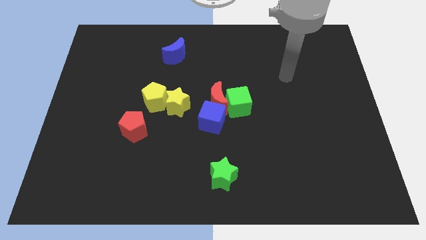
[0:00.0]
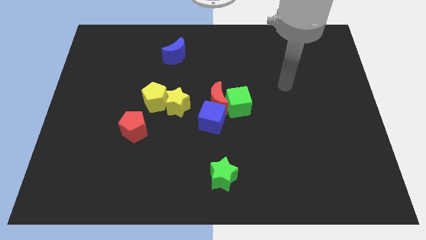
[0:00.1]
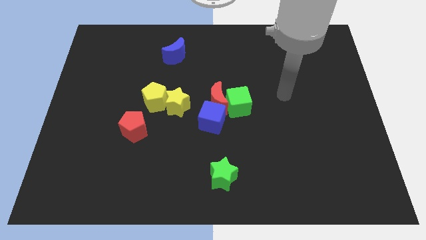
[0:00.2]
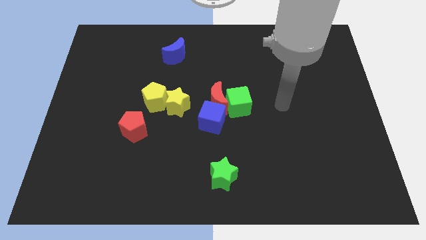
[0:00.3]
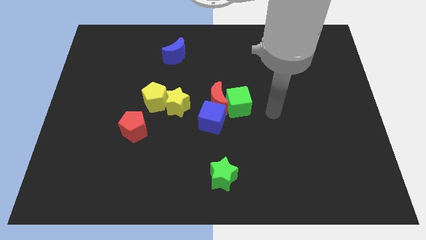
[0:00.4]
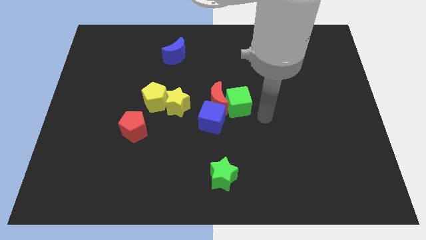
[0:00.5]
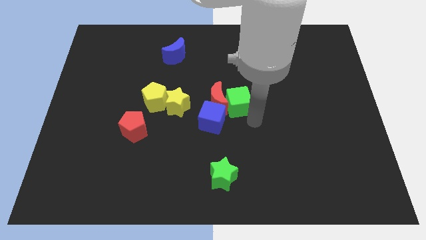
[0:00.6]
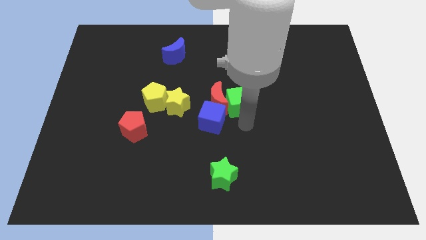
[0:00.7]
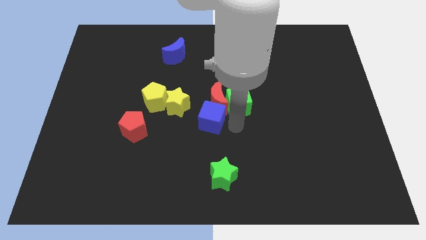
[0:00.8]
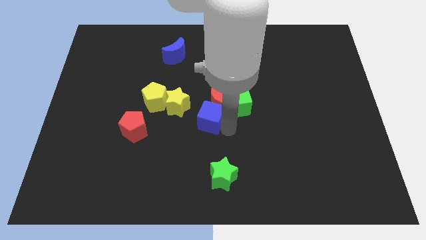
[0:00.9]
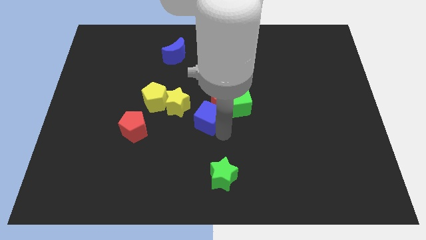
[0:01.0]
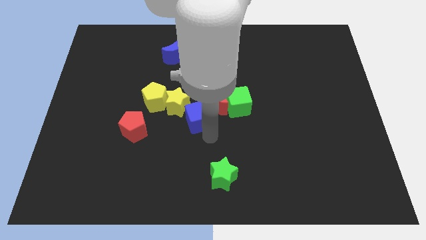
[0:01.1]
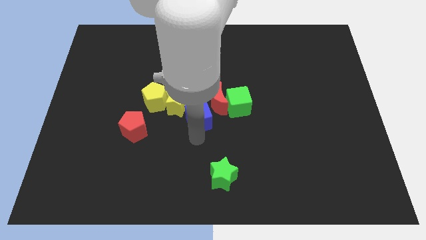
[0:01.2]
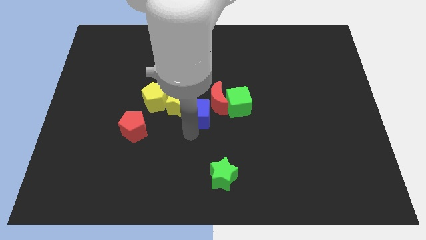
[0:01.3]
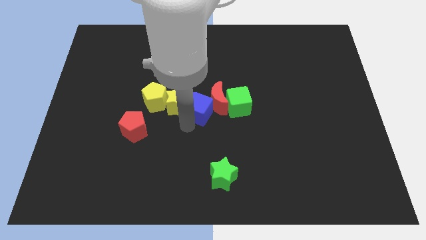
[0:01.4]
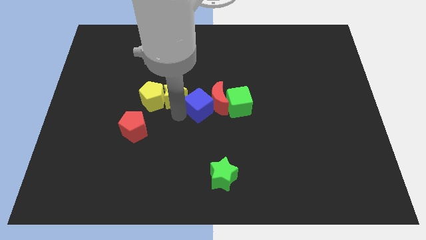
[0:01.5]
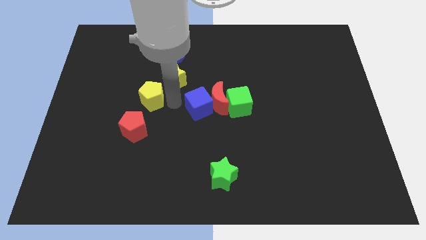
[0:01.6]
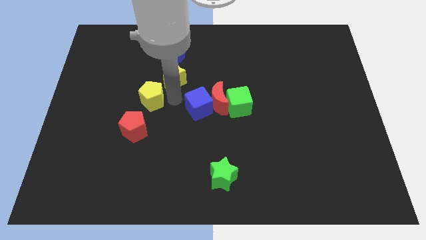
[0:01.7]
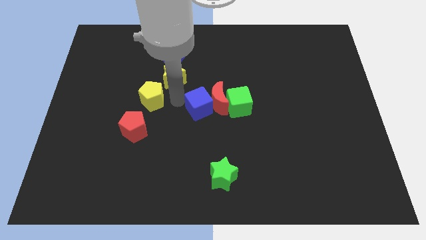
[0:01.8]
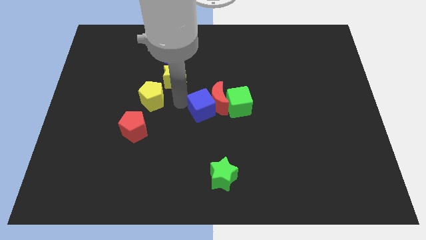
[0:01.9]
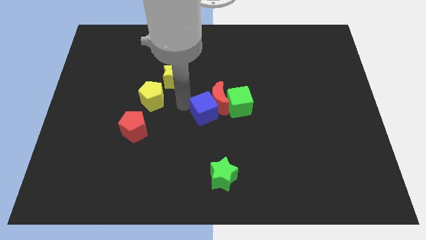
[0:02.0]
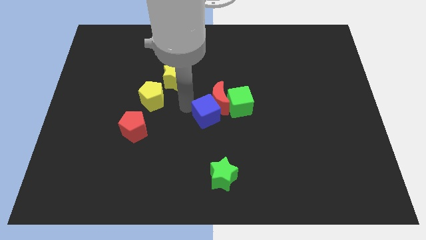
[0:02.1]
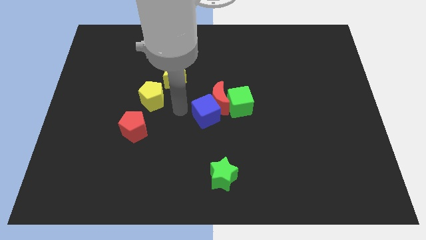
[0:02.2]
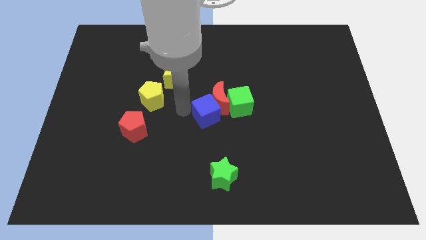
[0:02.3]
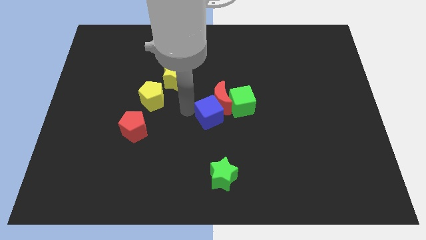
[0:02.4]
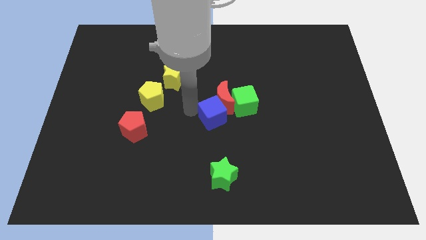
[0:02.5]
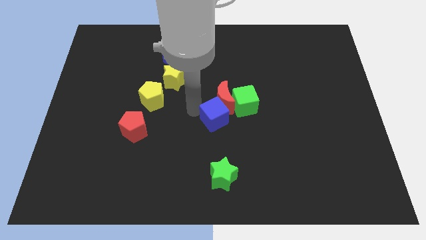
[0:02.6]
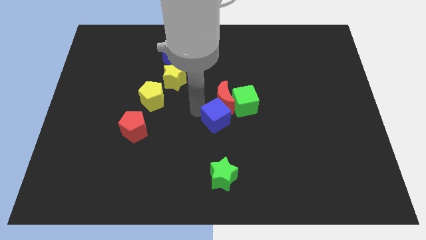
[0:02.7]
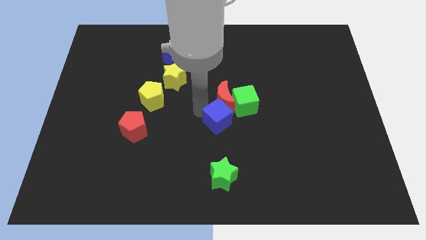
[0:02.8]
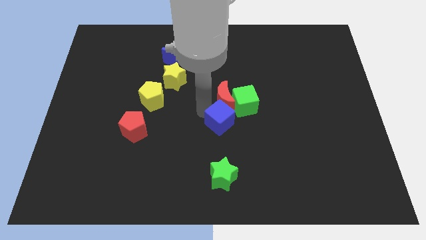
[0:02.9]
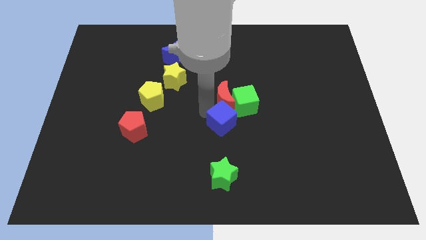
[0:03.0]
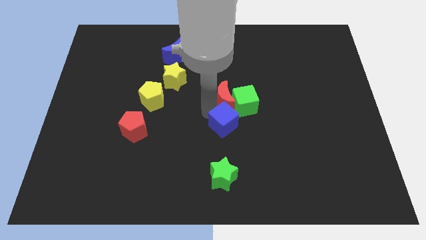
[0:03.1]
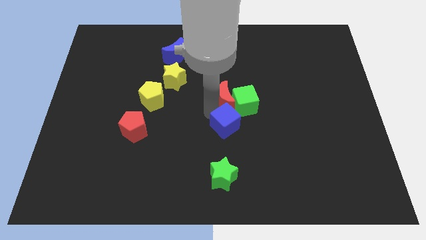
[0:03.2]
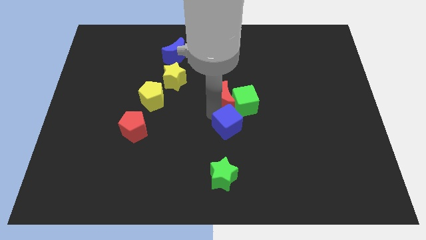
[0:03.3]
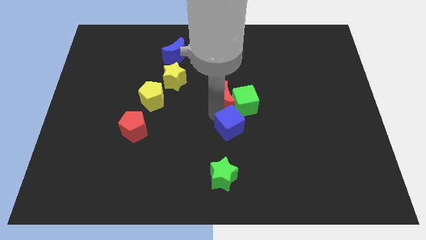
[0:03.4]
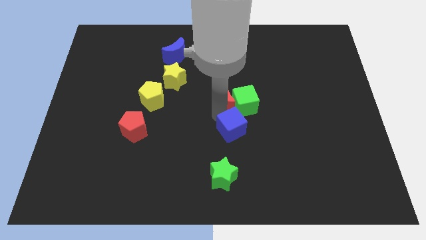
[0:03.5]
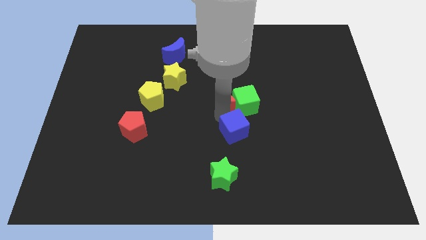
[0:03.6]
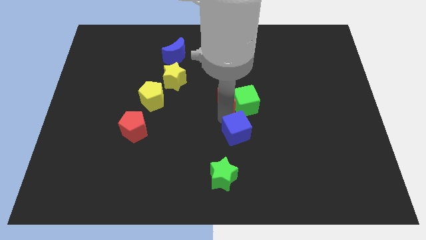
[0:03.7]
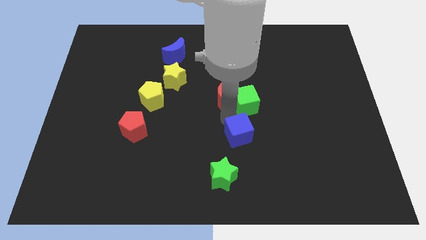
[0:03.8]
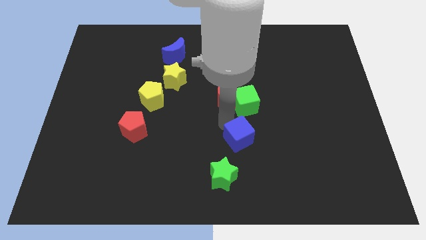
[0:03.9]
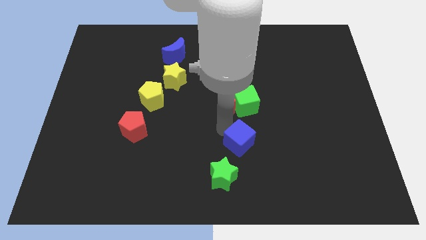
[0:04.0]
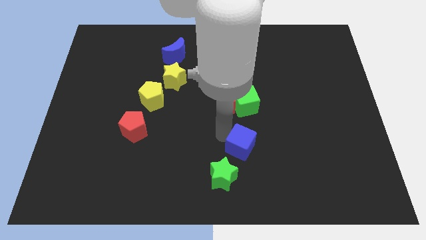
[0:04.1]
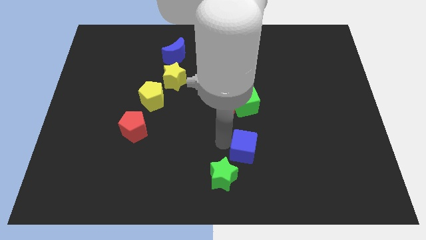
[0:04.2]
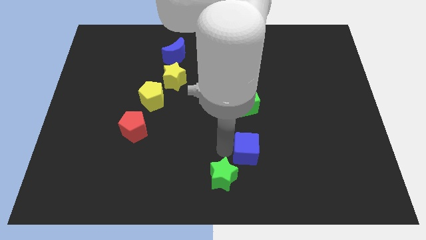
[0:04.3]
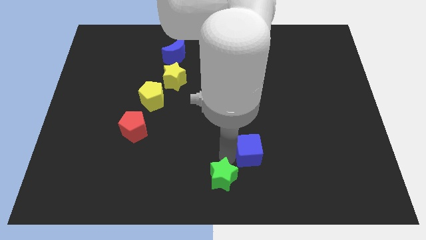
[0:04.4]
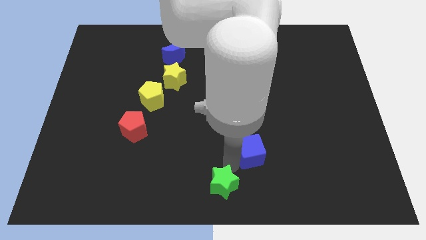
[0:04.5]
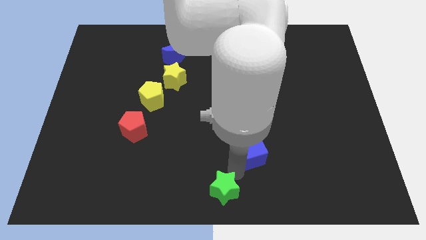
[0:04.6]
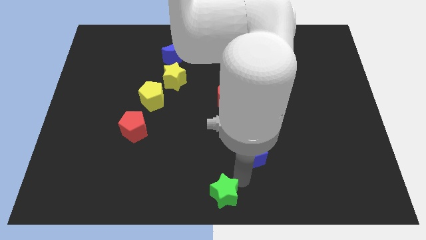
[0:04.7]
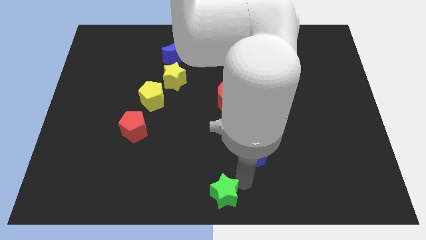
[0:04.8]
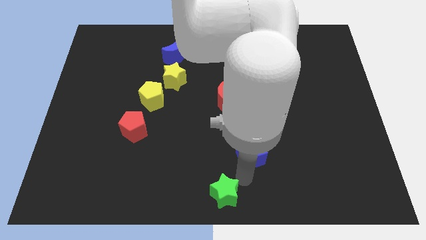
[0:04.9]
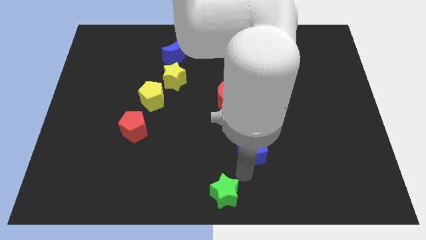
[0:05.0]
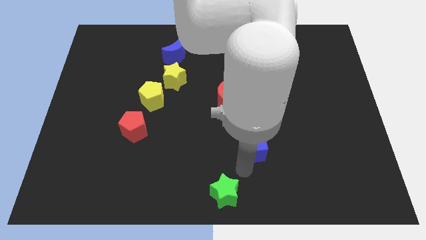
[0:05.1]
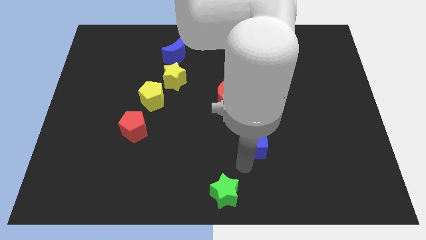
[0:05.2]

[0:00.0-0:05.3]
push the blue cube slightly right

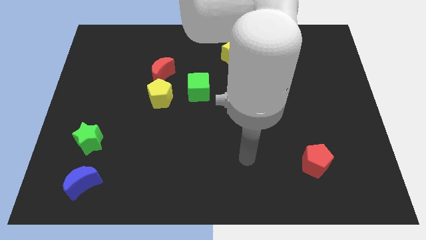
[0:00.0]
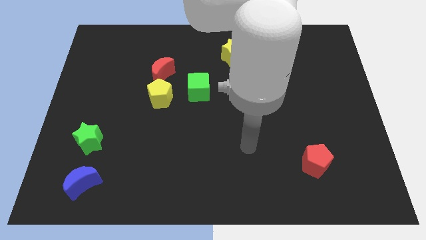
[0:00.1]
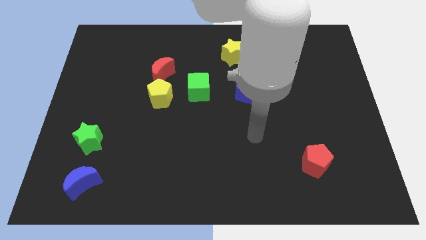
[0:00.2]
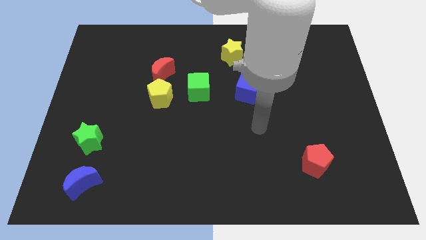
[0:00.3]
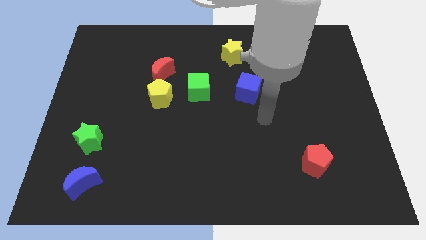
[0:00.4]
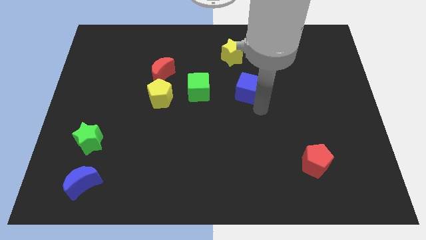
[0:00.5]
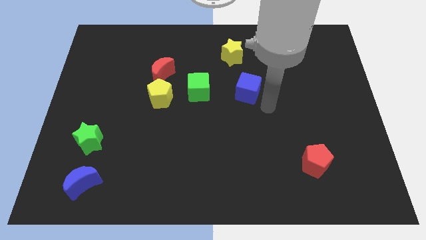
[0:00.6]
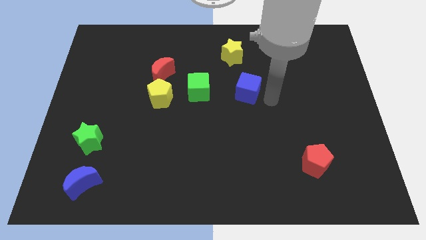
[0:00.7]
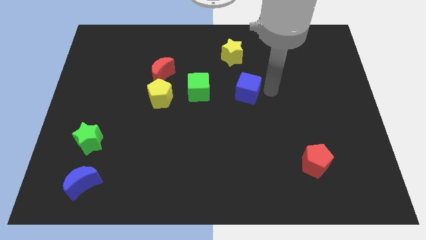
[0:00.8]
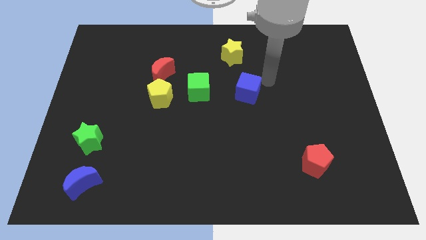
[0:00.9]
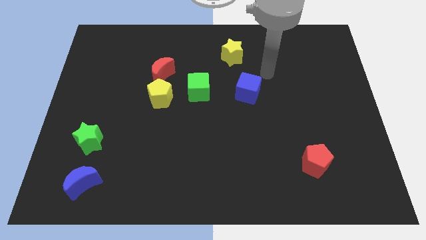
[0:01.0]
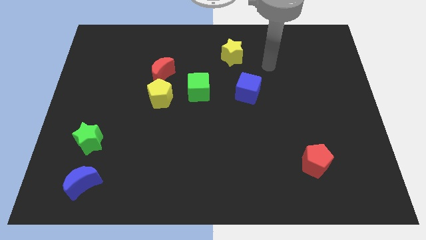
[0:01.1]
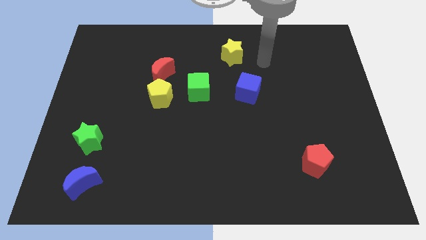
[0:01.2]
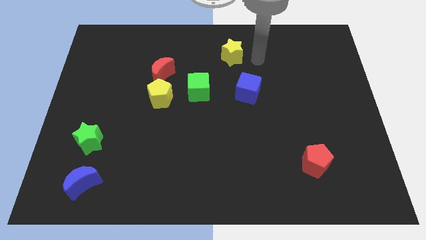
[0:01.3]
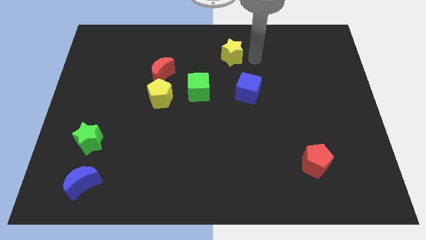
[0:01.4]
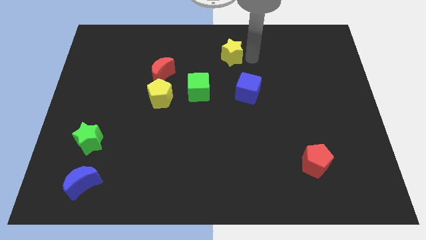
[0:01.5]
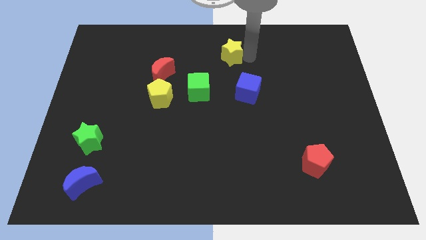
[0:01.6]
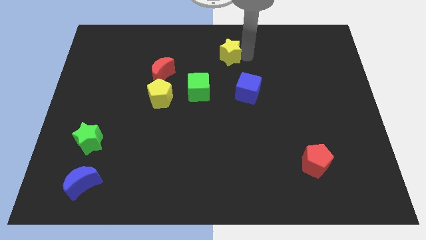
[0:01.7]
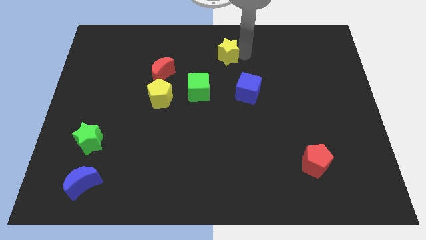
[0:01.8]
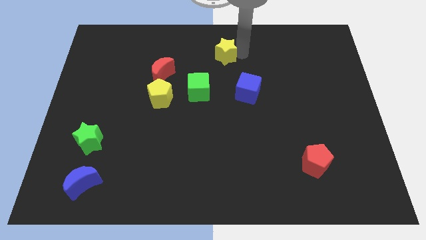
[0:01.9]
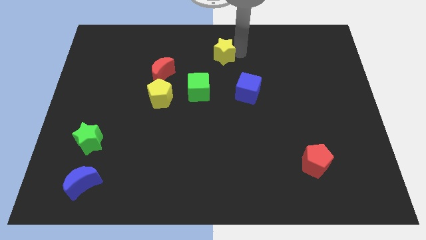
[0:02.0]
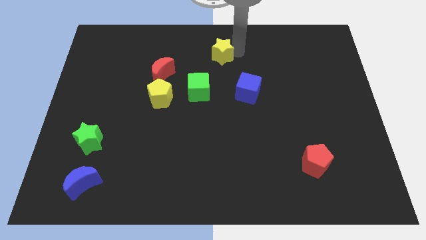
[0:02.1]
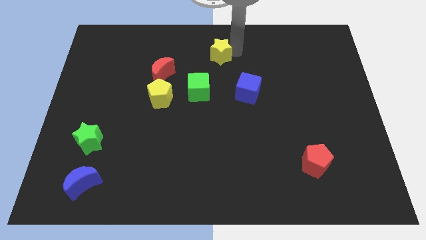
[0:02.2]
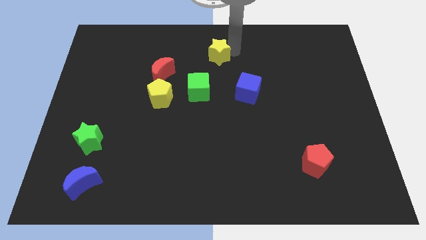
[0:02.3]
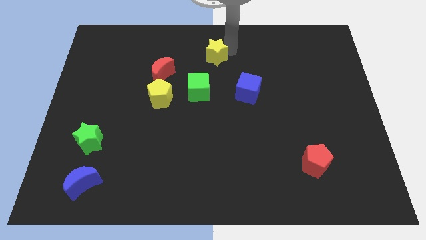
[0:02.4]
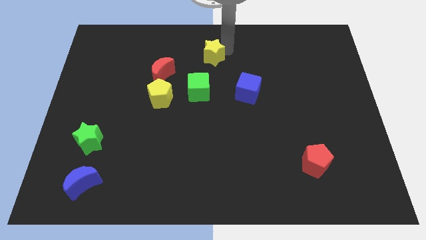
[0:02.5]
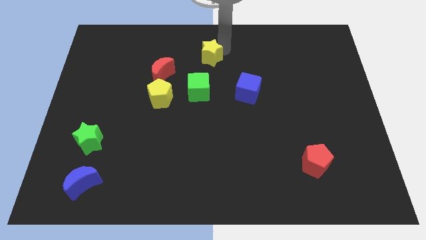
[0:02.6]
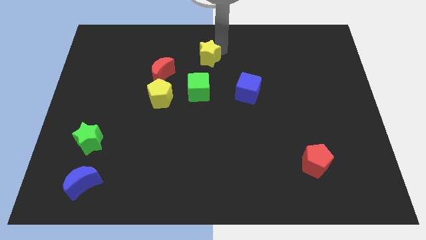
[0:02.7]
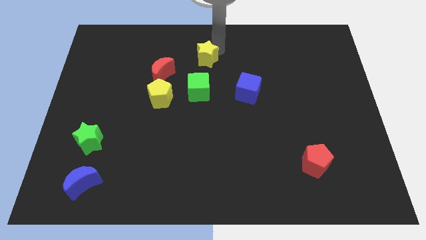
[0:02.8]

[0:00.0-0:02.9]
slide the yellow star left a little
